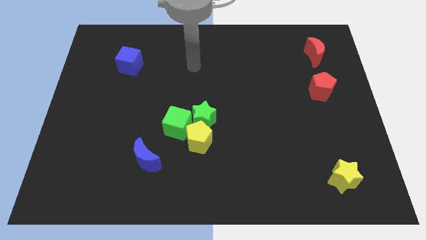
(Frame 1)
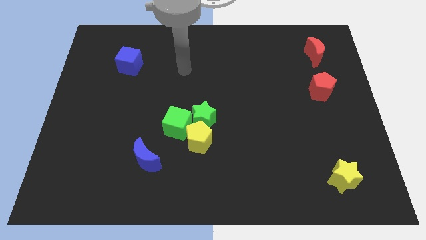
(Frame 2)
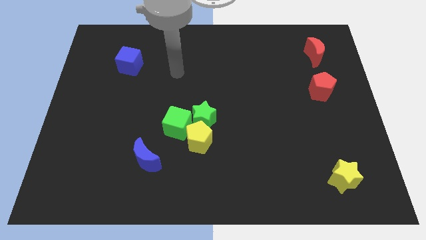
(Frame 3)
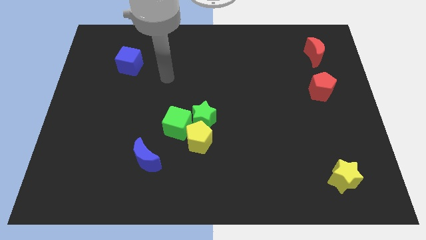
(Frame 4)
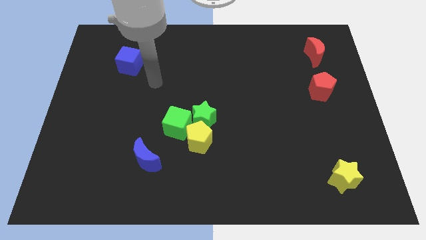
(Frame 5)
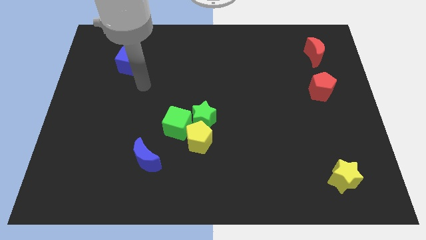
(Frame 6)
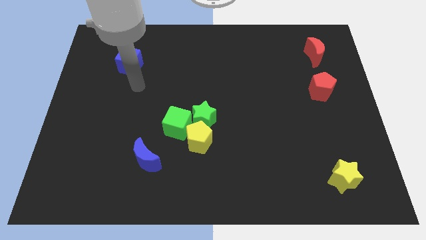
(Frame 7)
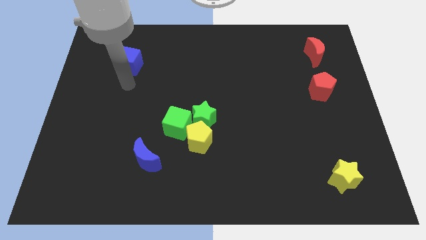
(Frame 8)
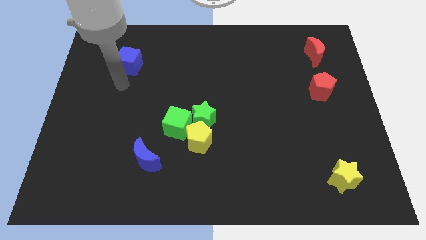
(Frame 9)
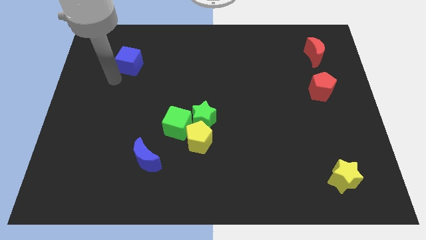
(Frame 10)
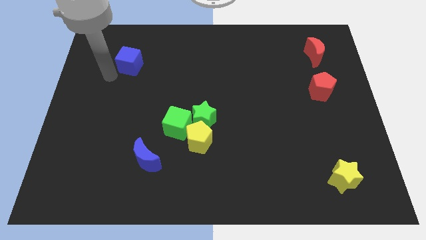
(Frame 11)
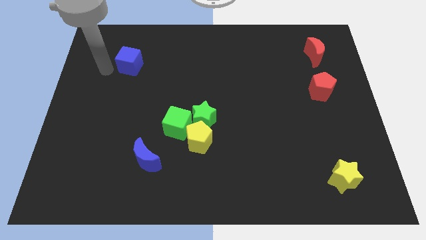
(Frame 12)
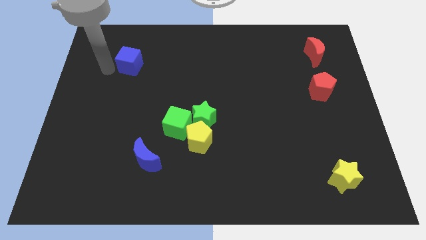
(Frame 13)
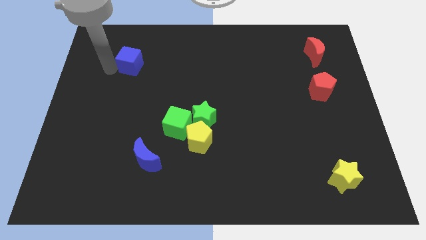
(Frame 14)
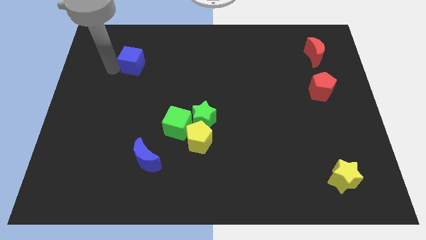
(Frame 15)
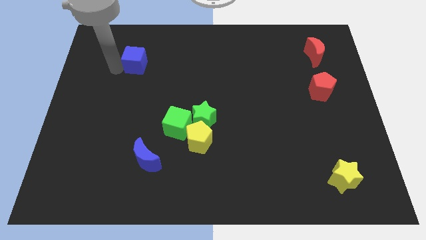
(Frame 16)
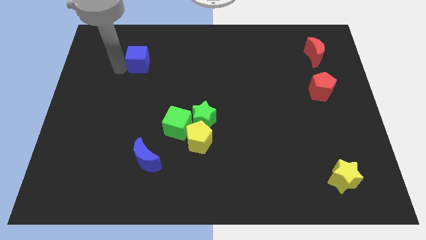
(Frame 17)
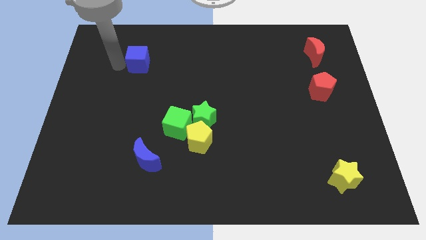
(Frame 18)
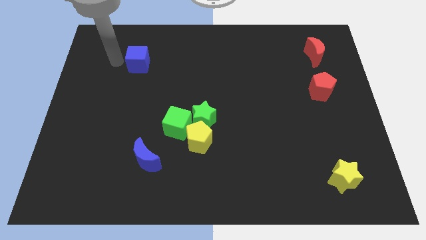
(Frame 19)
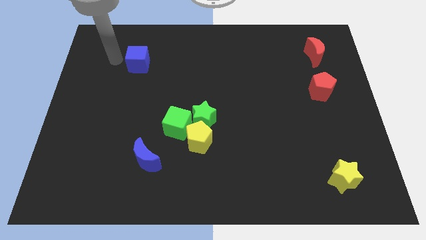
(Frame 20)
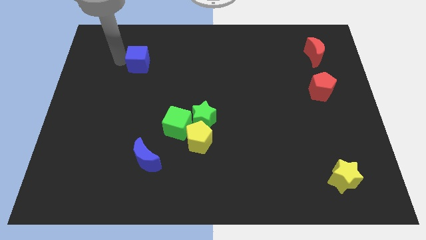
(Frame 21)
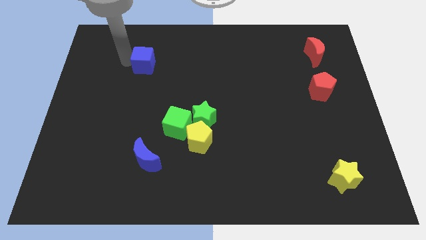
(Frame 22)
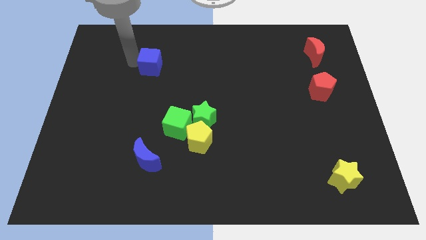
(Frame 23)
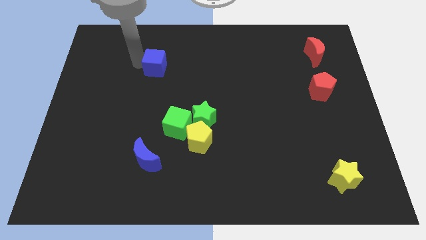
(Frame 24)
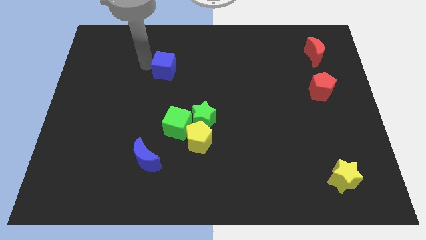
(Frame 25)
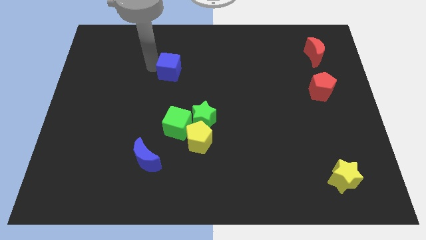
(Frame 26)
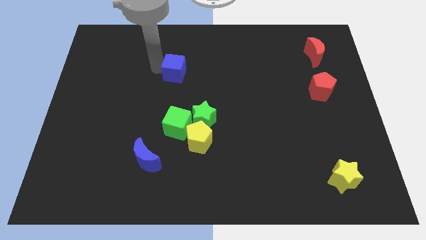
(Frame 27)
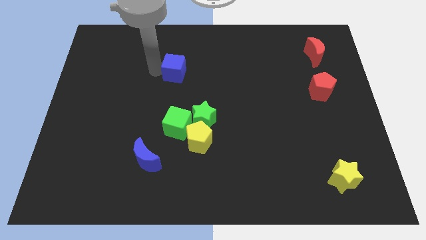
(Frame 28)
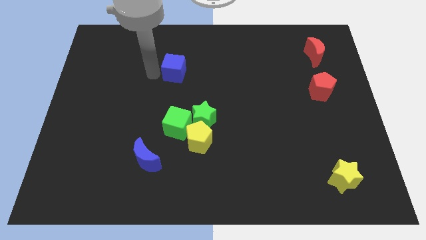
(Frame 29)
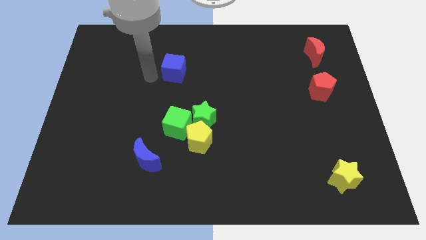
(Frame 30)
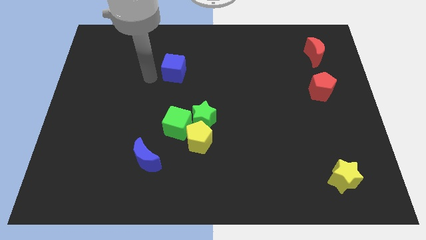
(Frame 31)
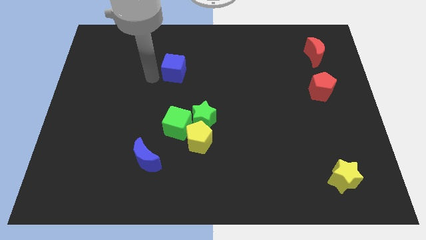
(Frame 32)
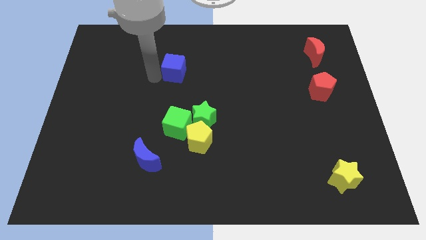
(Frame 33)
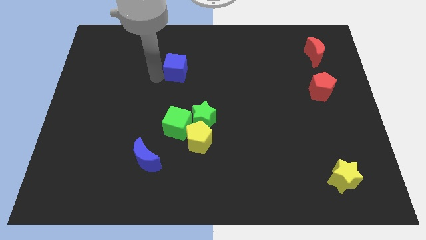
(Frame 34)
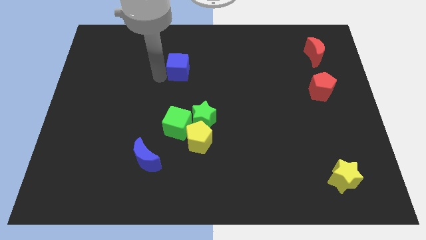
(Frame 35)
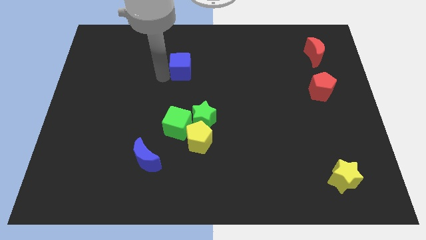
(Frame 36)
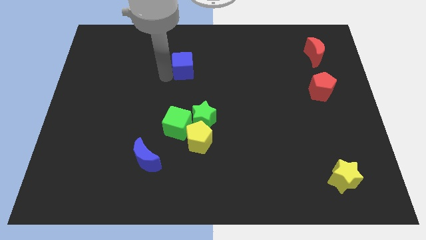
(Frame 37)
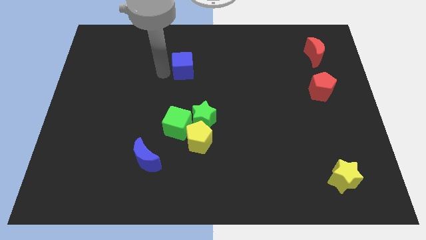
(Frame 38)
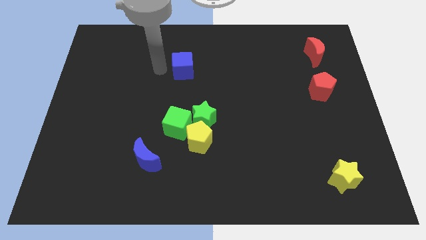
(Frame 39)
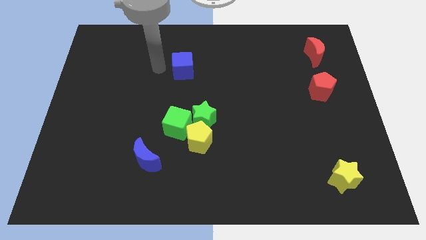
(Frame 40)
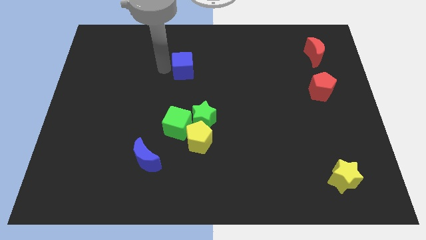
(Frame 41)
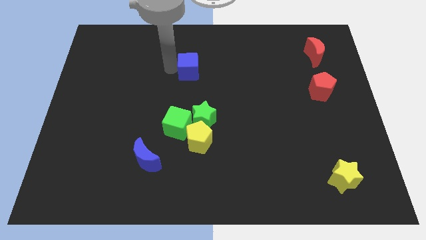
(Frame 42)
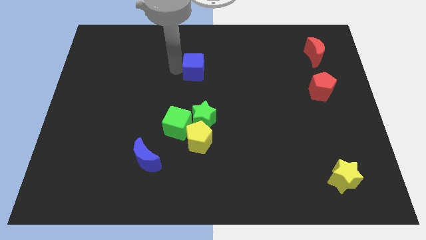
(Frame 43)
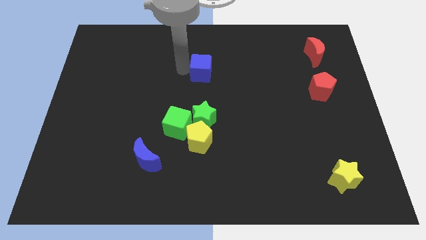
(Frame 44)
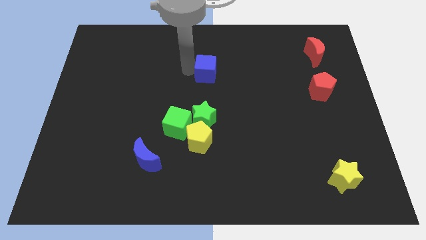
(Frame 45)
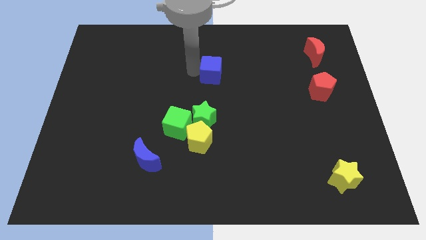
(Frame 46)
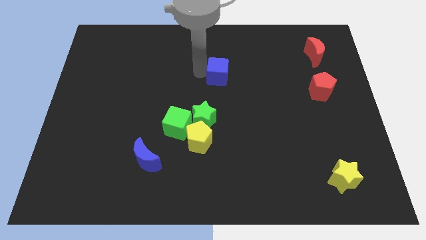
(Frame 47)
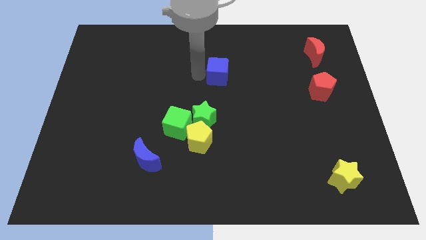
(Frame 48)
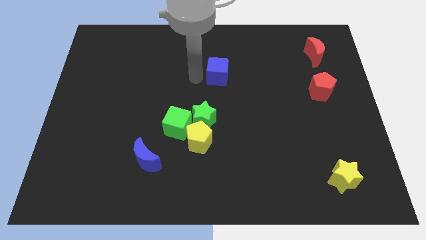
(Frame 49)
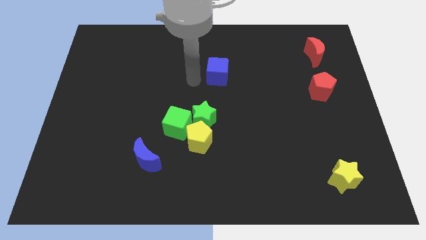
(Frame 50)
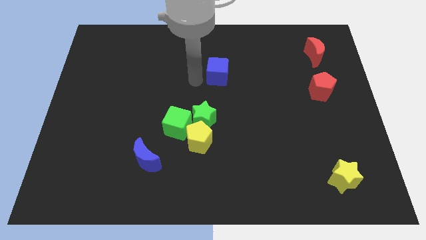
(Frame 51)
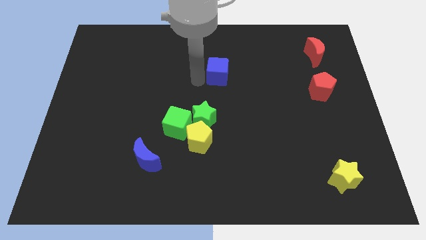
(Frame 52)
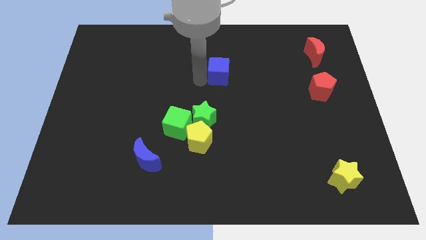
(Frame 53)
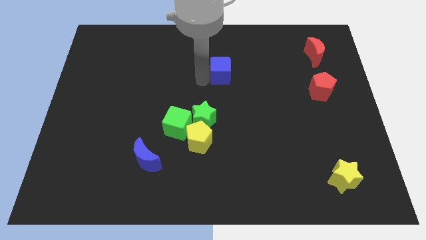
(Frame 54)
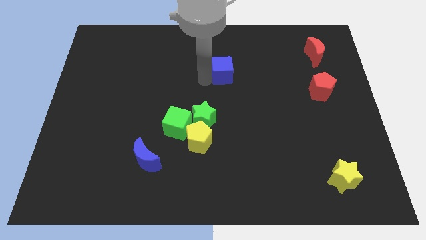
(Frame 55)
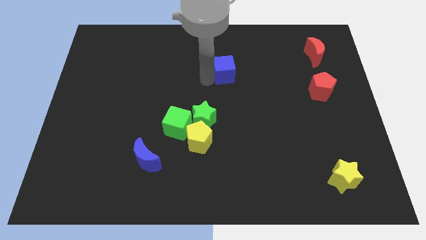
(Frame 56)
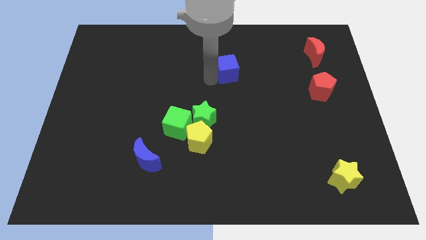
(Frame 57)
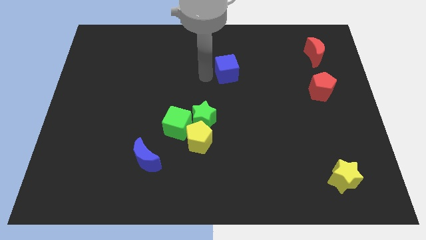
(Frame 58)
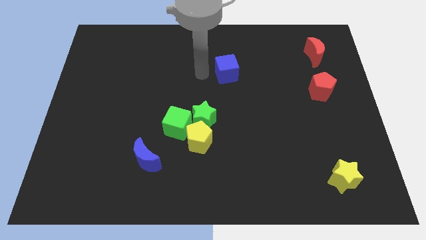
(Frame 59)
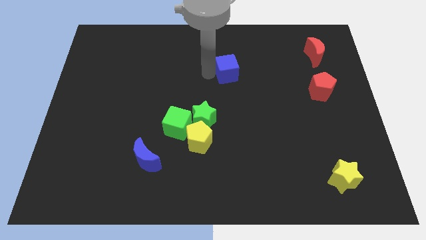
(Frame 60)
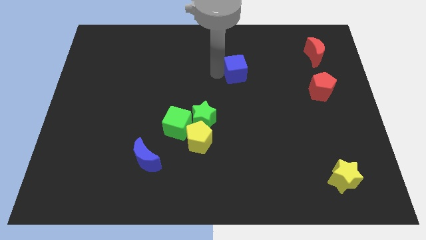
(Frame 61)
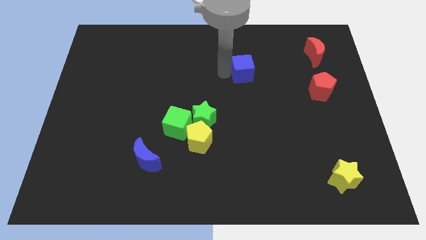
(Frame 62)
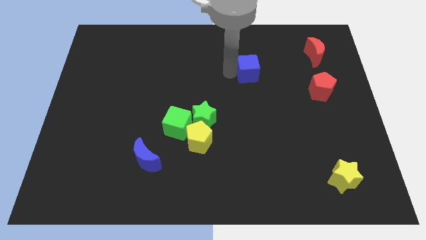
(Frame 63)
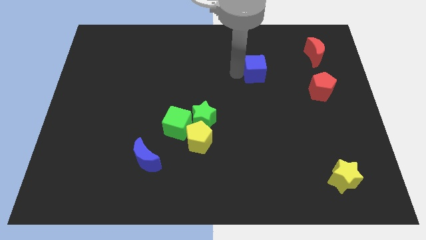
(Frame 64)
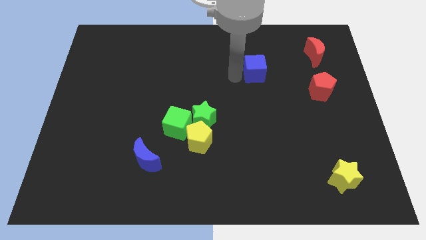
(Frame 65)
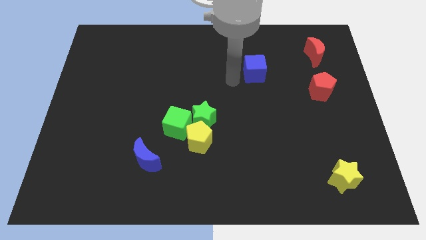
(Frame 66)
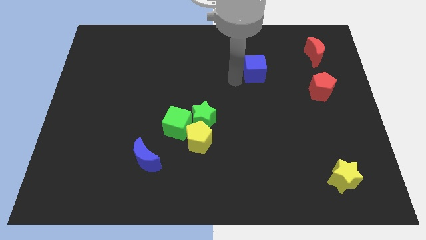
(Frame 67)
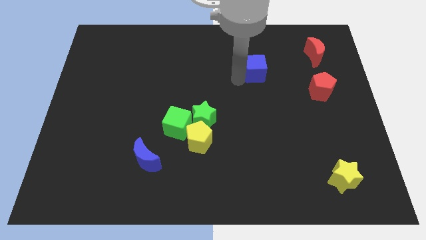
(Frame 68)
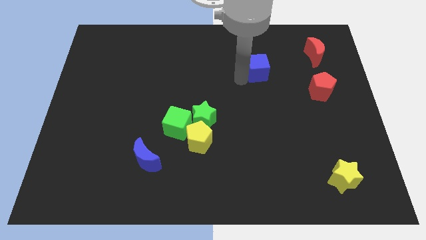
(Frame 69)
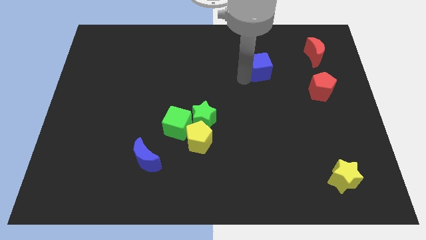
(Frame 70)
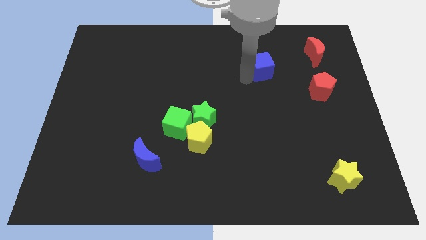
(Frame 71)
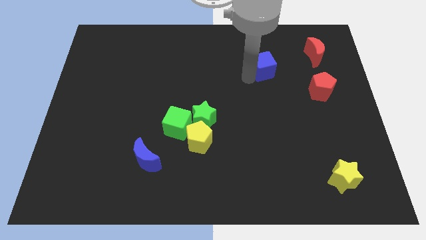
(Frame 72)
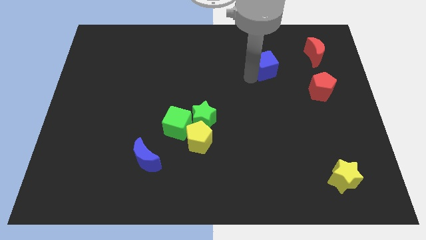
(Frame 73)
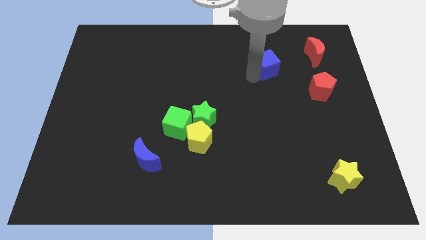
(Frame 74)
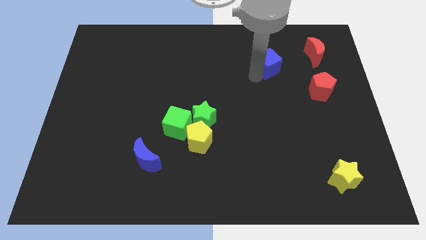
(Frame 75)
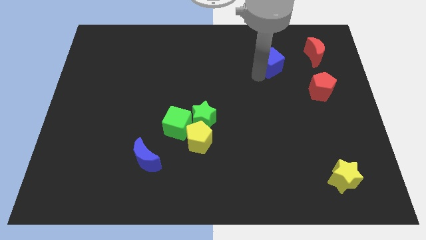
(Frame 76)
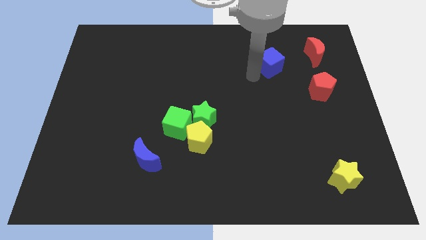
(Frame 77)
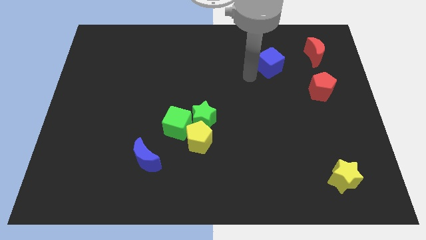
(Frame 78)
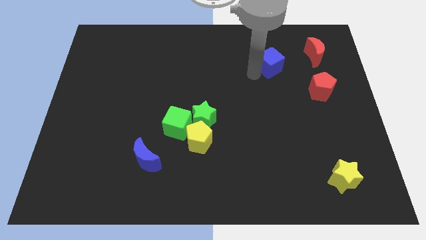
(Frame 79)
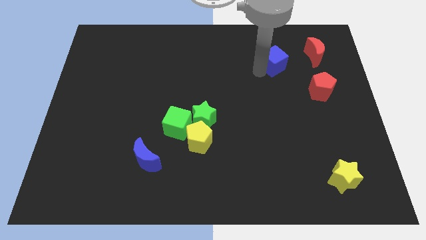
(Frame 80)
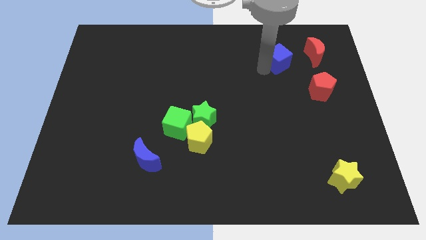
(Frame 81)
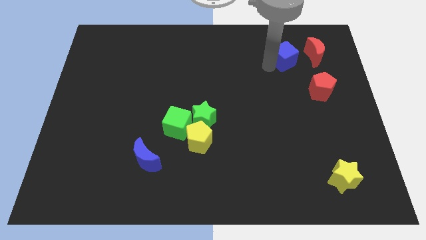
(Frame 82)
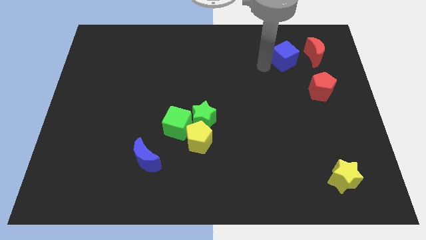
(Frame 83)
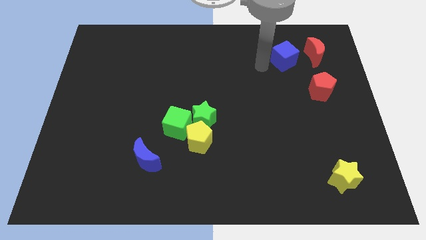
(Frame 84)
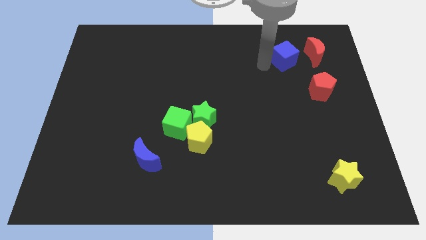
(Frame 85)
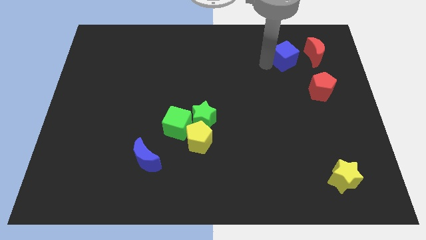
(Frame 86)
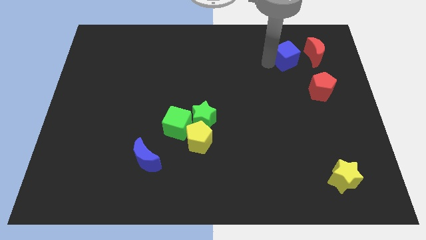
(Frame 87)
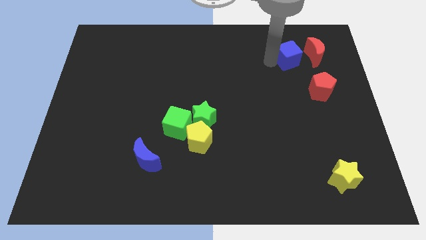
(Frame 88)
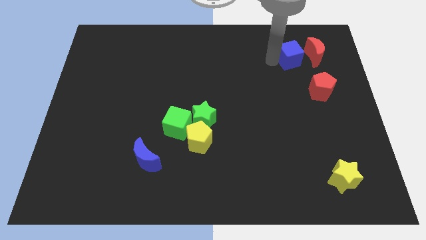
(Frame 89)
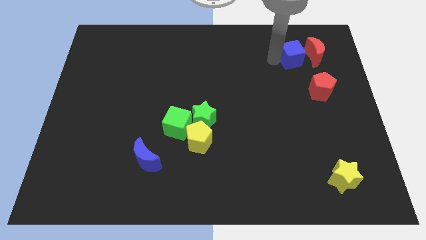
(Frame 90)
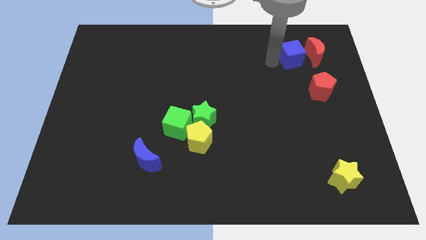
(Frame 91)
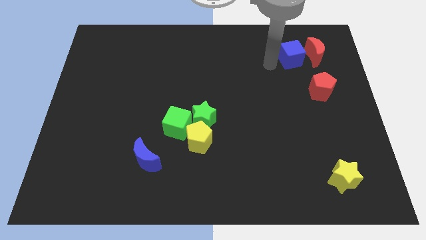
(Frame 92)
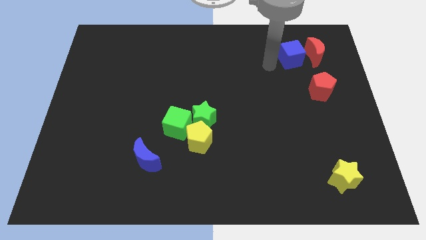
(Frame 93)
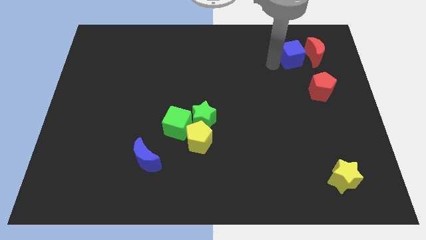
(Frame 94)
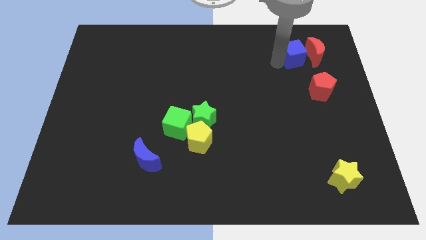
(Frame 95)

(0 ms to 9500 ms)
push the blue cube next to the red moon
